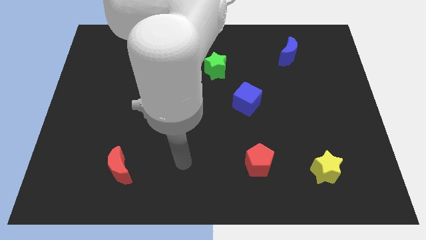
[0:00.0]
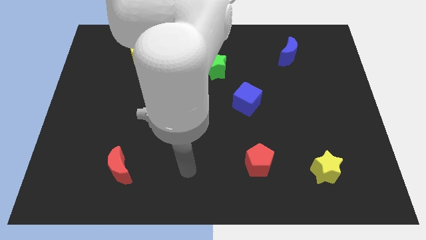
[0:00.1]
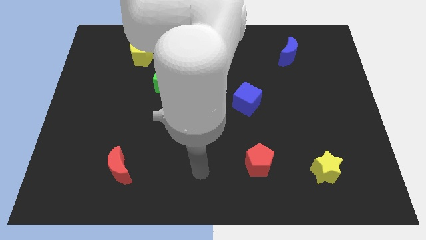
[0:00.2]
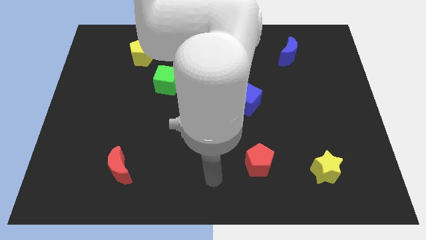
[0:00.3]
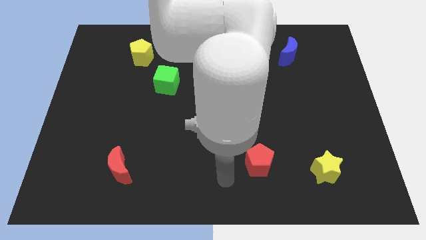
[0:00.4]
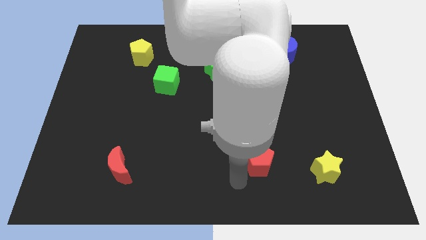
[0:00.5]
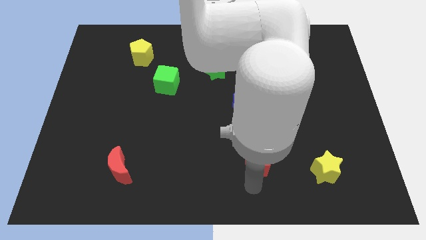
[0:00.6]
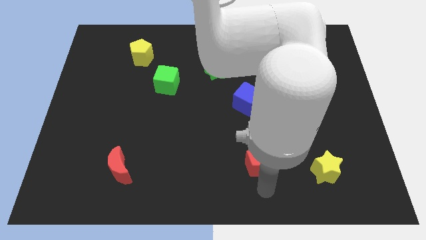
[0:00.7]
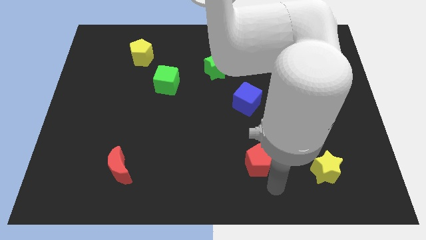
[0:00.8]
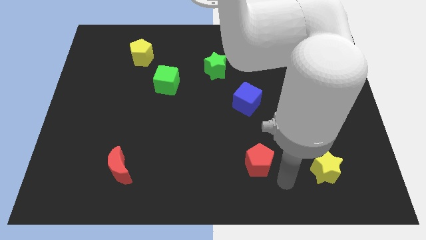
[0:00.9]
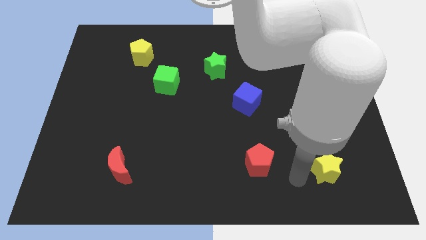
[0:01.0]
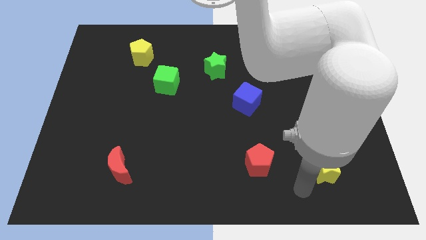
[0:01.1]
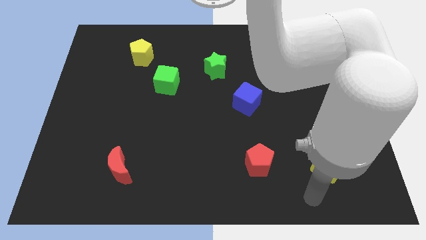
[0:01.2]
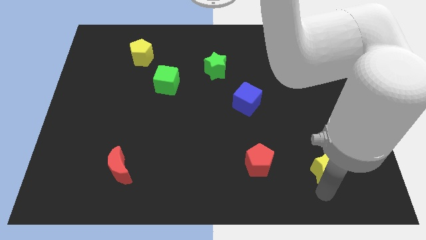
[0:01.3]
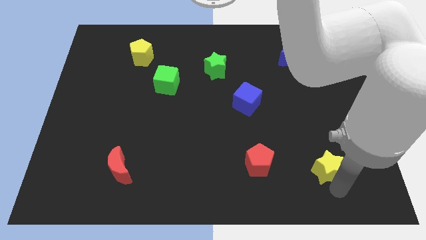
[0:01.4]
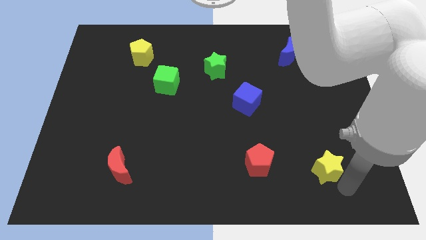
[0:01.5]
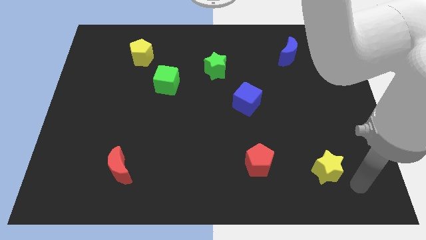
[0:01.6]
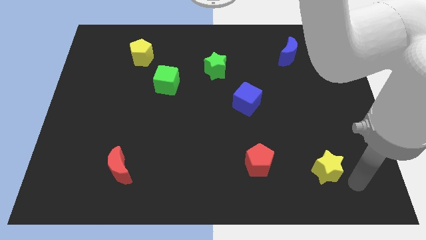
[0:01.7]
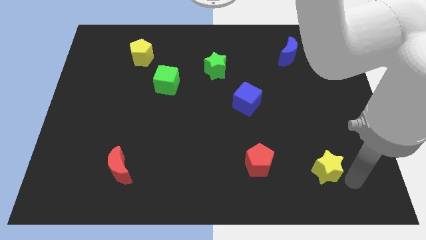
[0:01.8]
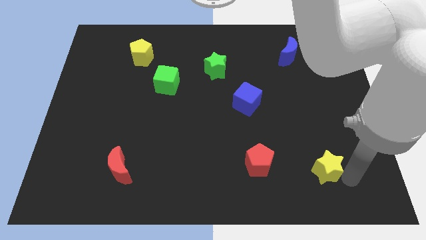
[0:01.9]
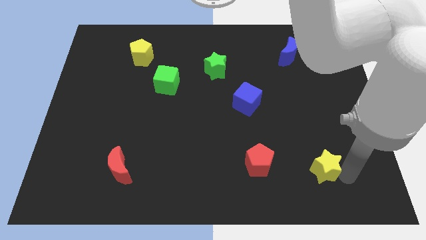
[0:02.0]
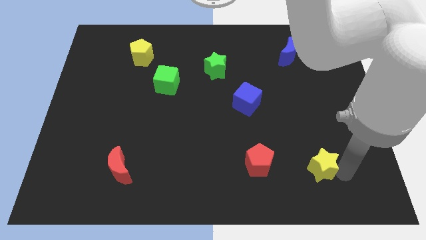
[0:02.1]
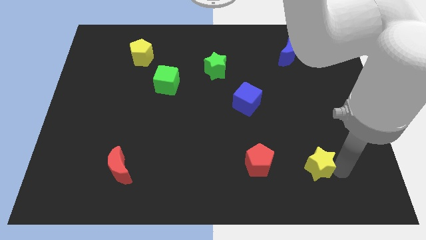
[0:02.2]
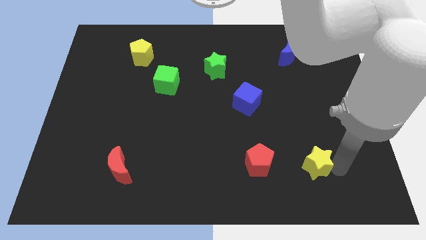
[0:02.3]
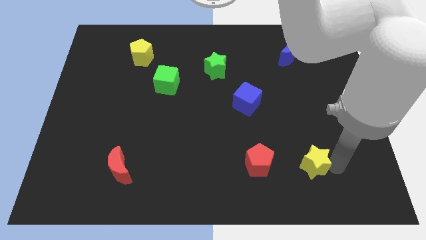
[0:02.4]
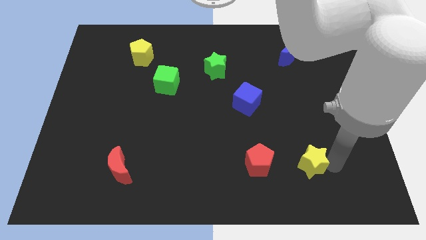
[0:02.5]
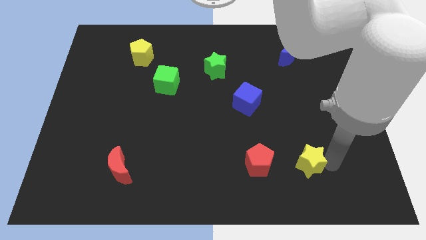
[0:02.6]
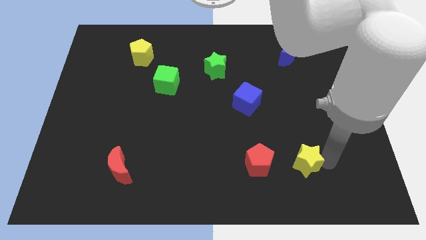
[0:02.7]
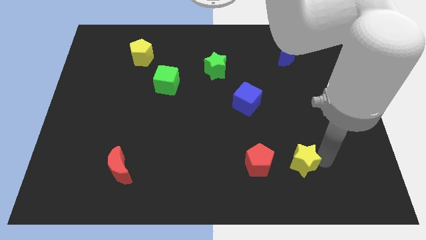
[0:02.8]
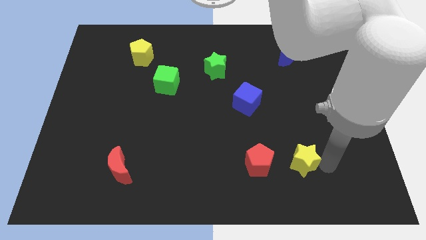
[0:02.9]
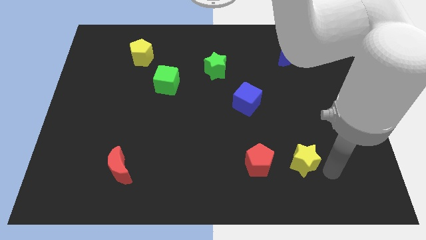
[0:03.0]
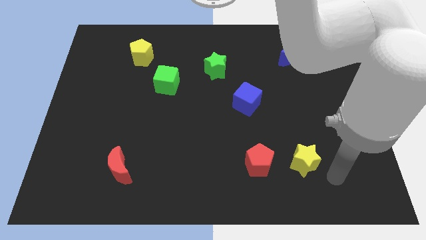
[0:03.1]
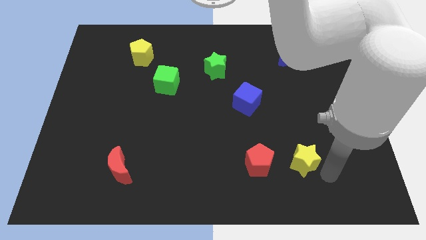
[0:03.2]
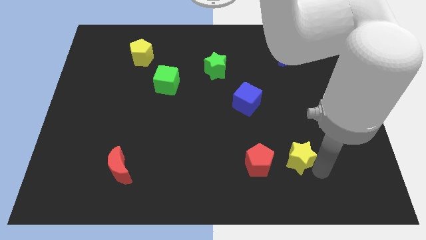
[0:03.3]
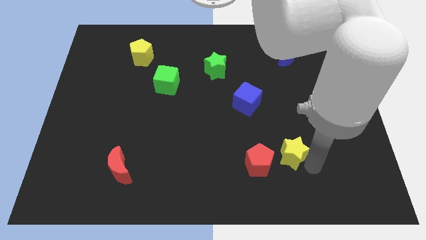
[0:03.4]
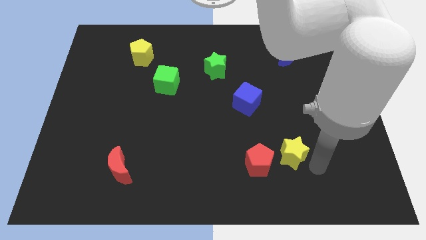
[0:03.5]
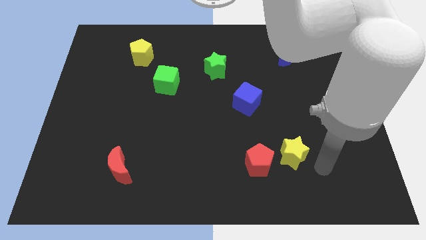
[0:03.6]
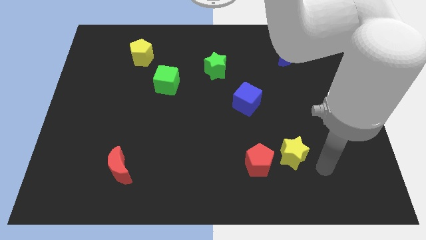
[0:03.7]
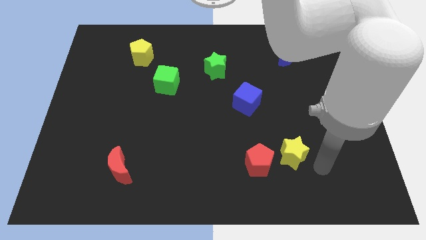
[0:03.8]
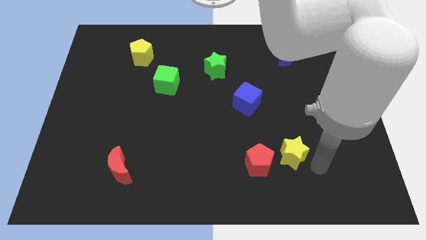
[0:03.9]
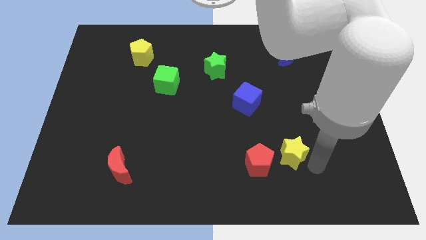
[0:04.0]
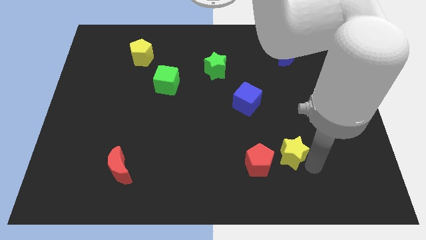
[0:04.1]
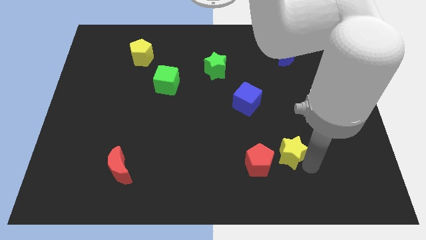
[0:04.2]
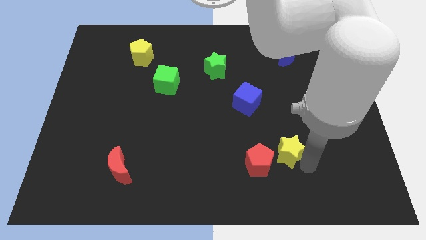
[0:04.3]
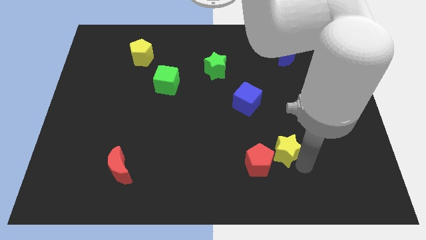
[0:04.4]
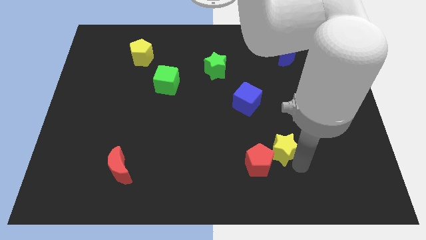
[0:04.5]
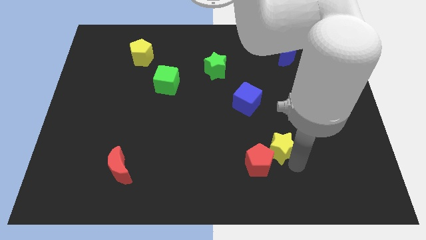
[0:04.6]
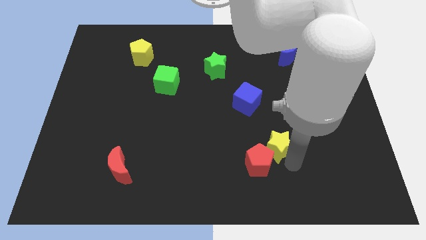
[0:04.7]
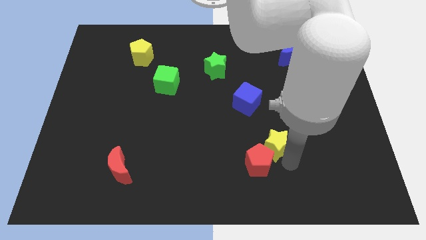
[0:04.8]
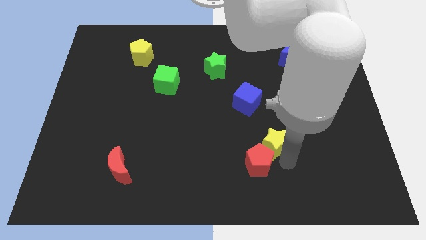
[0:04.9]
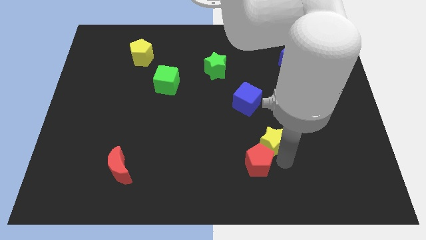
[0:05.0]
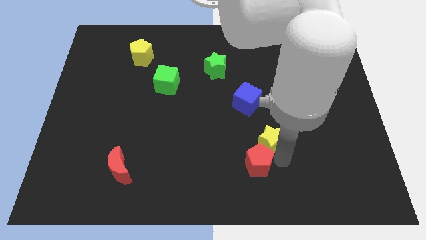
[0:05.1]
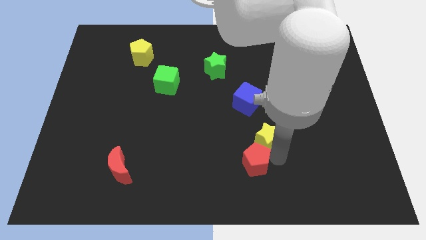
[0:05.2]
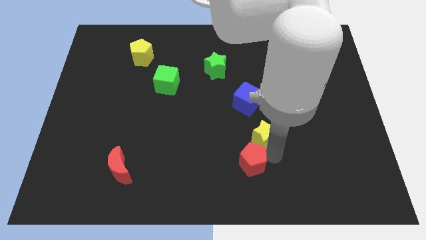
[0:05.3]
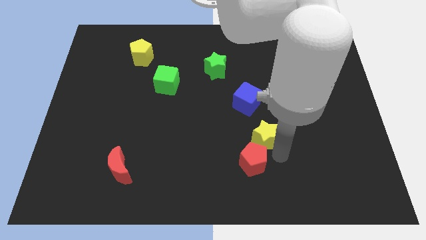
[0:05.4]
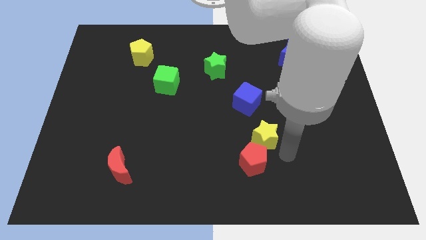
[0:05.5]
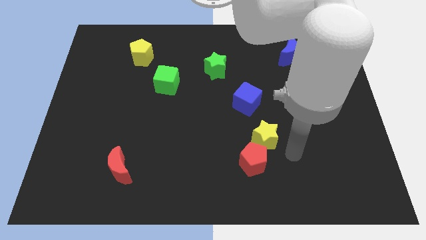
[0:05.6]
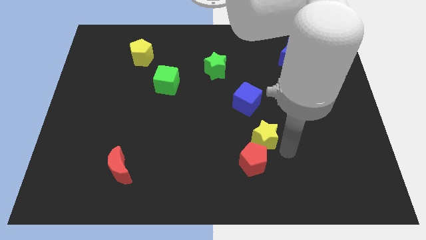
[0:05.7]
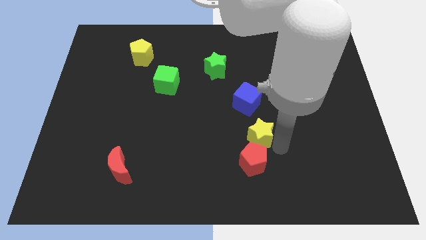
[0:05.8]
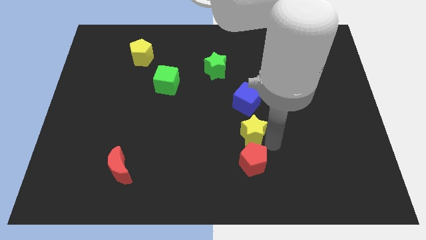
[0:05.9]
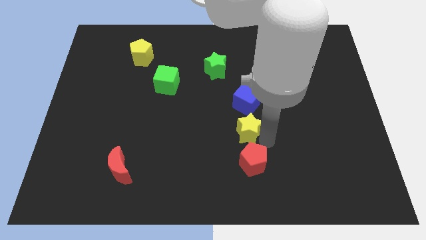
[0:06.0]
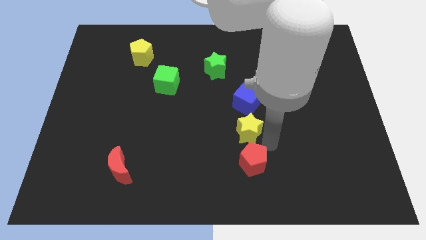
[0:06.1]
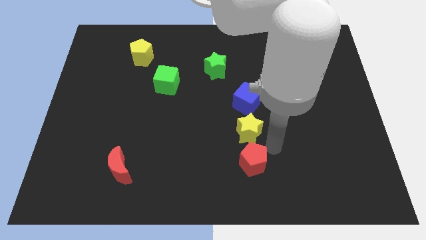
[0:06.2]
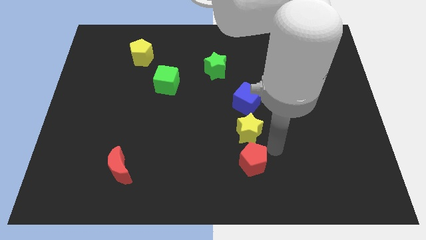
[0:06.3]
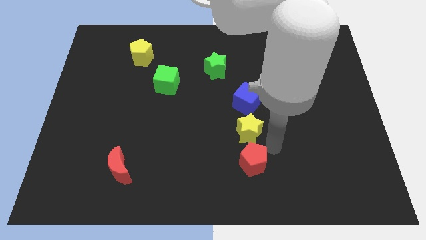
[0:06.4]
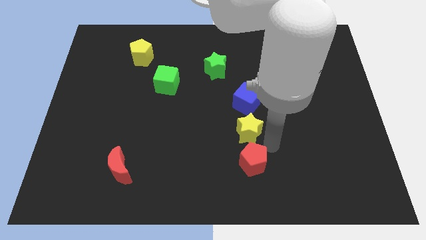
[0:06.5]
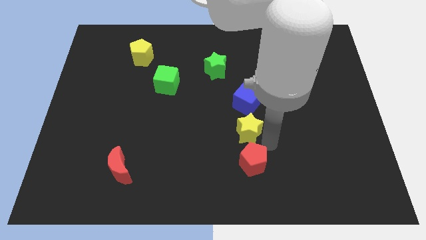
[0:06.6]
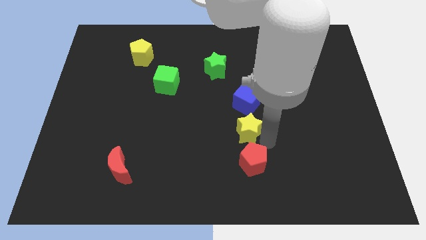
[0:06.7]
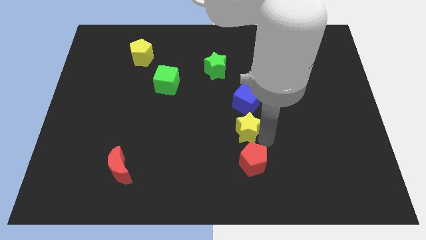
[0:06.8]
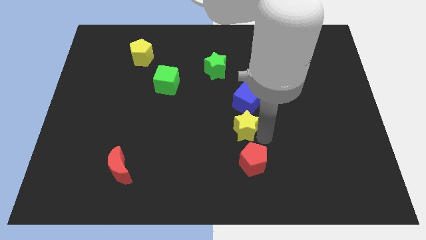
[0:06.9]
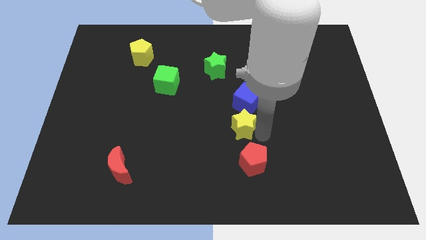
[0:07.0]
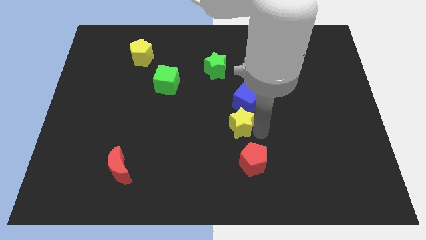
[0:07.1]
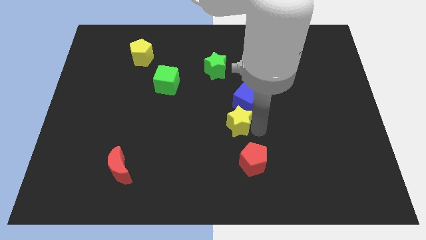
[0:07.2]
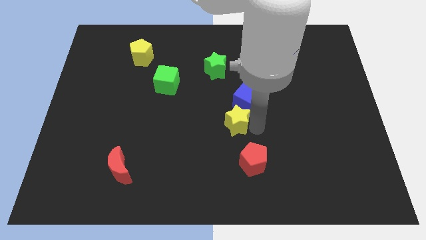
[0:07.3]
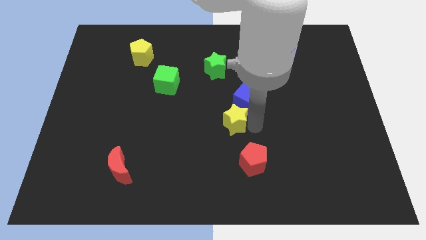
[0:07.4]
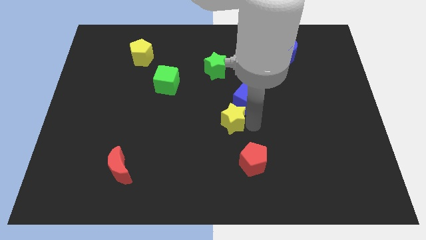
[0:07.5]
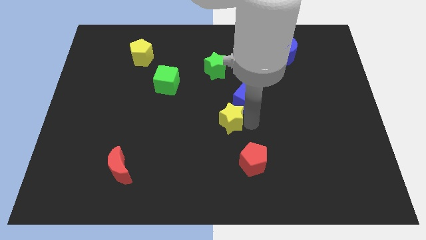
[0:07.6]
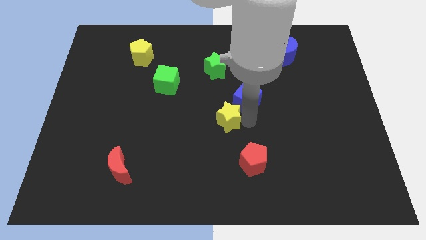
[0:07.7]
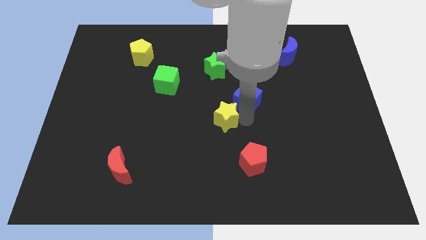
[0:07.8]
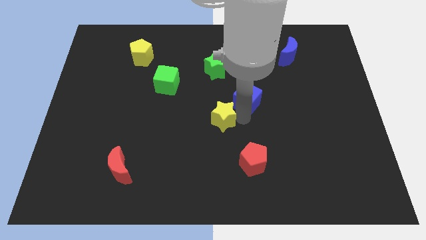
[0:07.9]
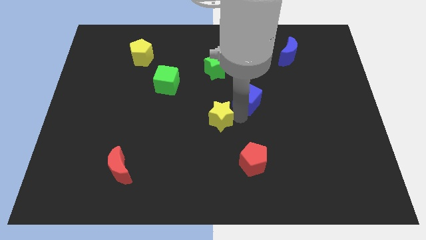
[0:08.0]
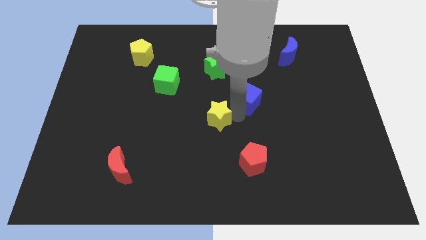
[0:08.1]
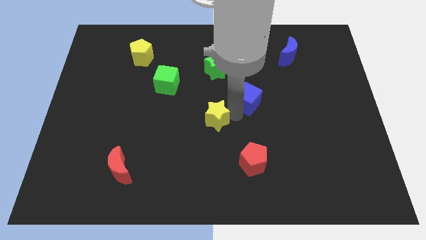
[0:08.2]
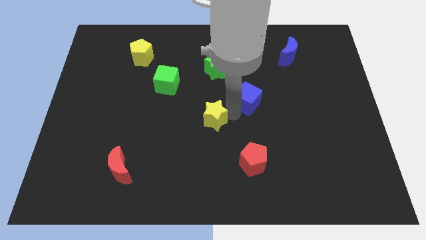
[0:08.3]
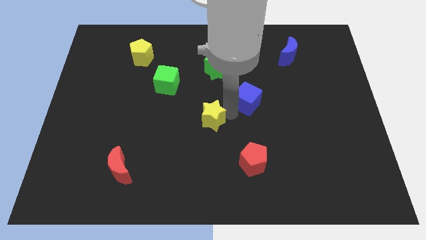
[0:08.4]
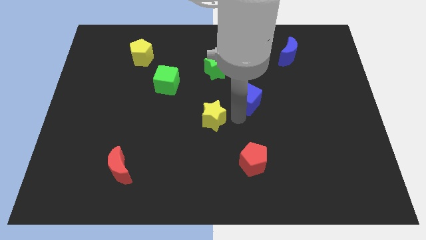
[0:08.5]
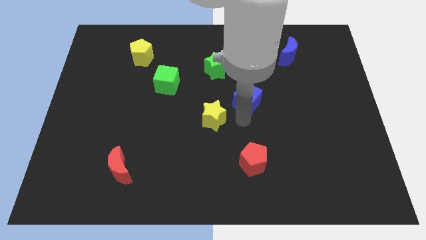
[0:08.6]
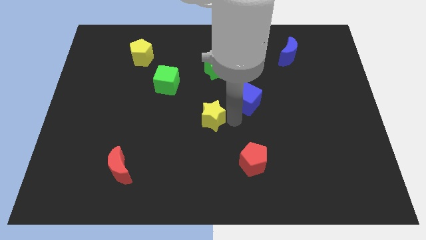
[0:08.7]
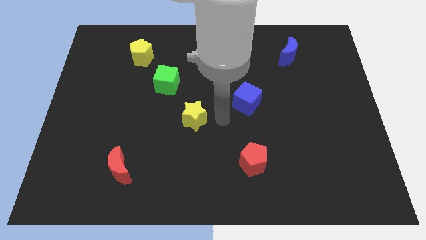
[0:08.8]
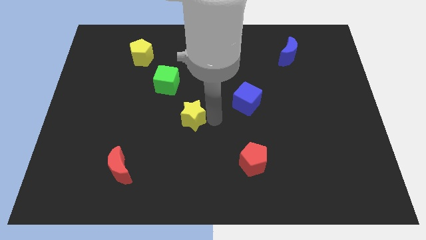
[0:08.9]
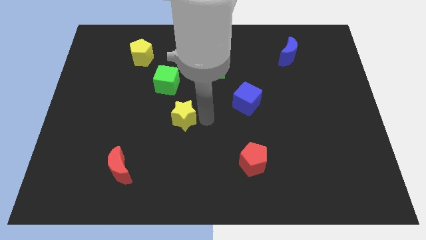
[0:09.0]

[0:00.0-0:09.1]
move the yellow star below the green cube
